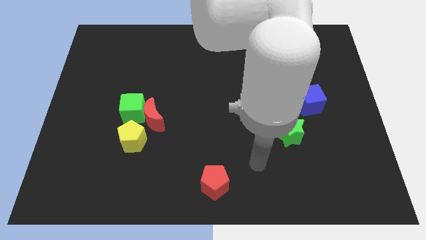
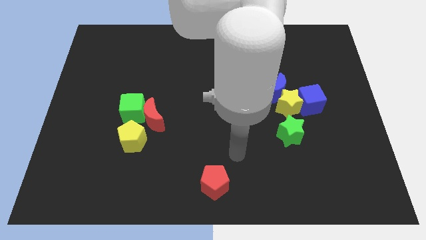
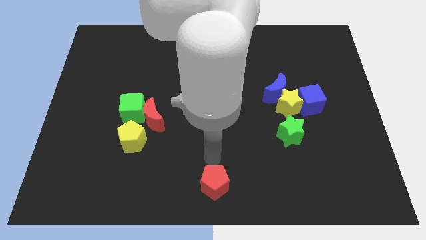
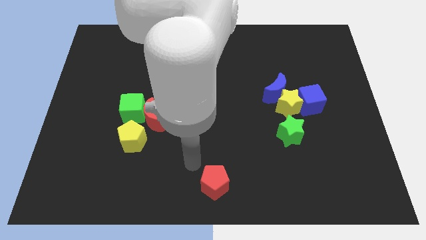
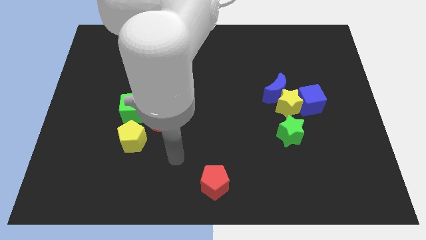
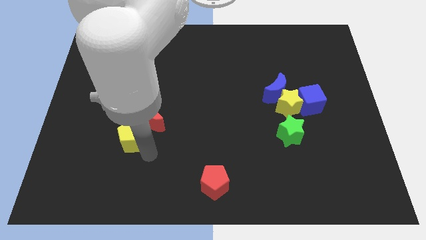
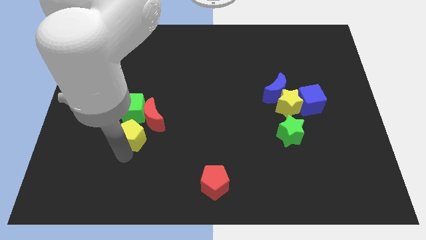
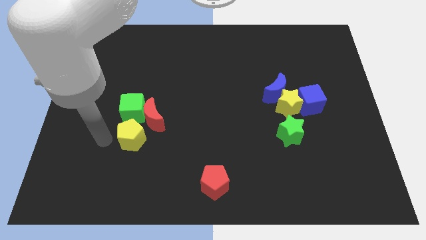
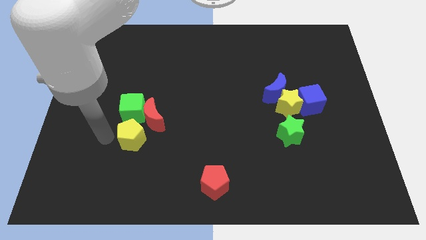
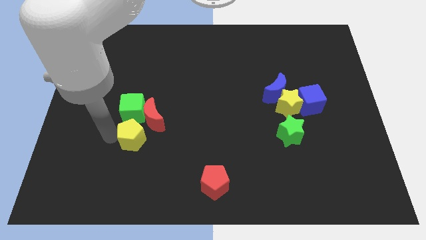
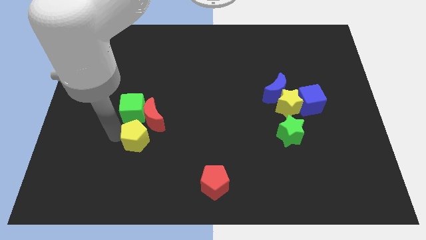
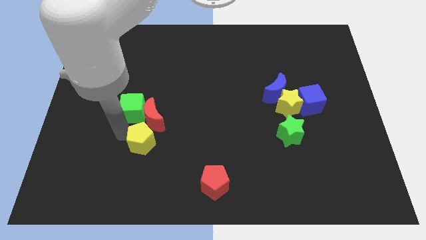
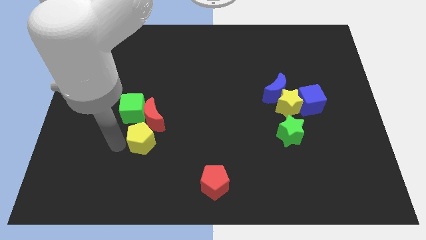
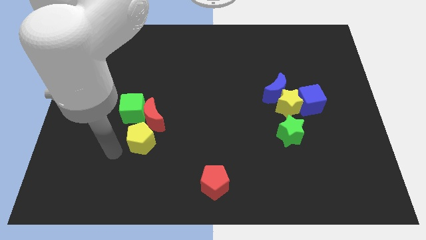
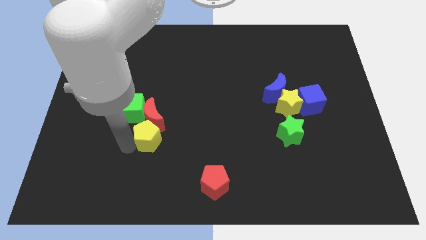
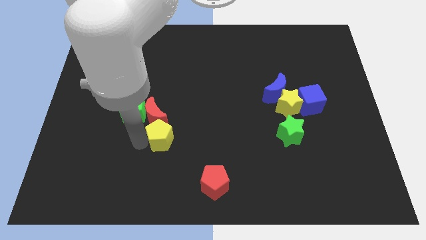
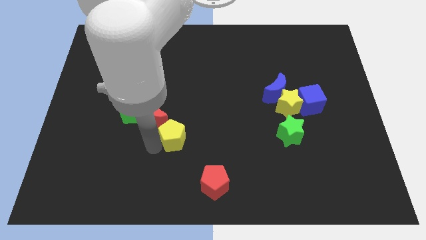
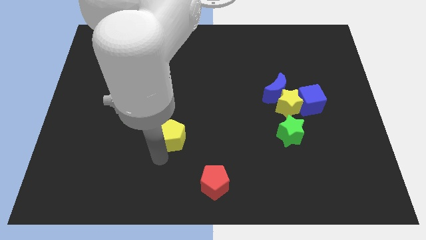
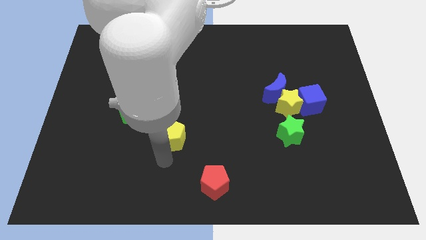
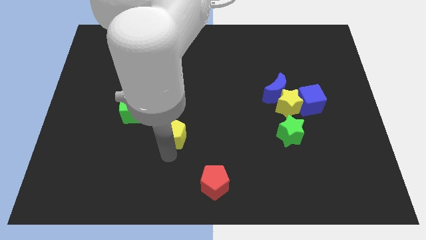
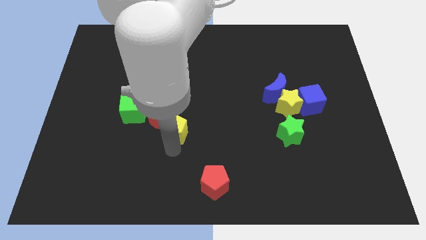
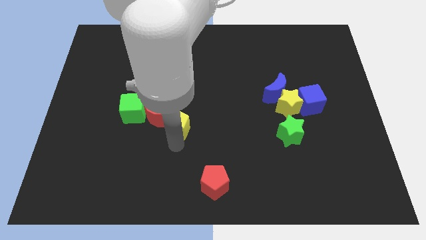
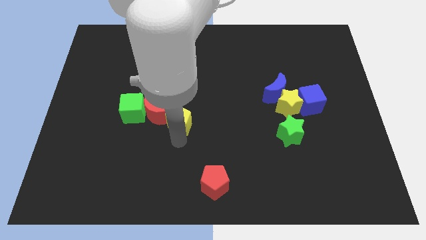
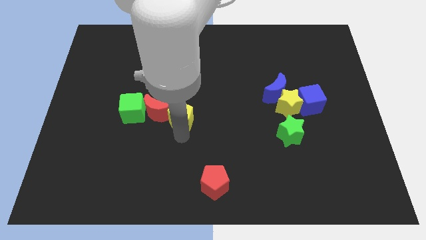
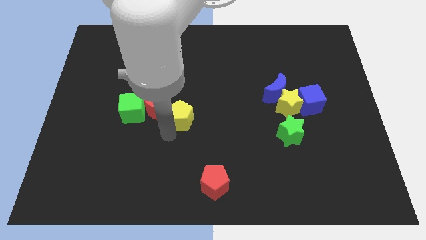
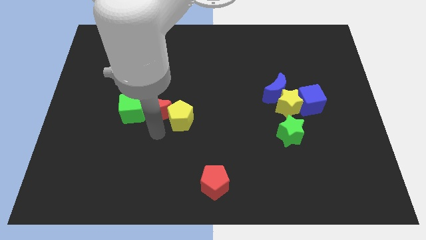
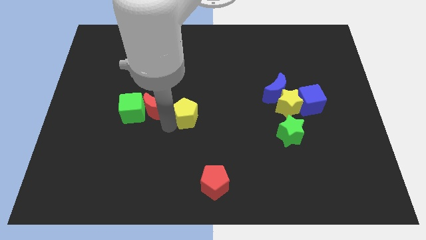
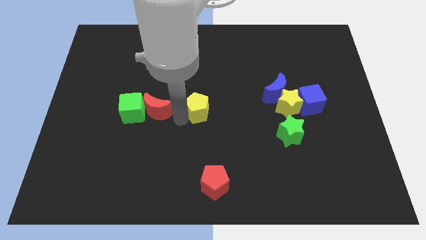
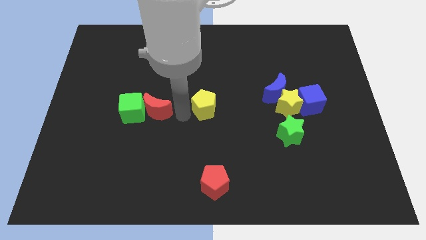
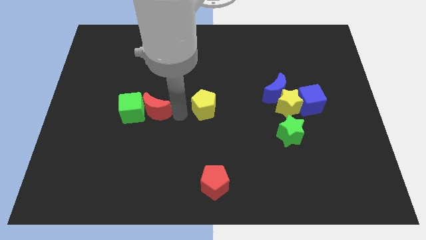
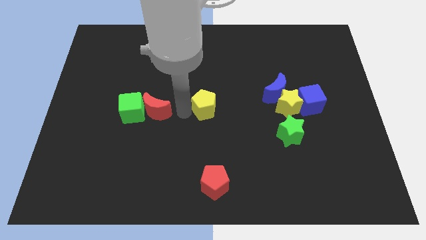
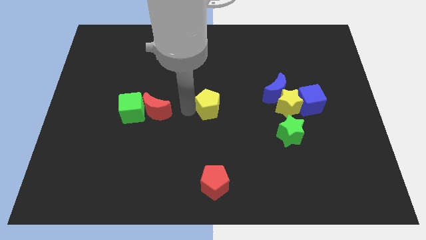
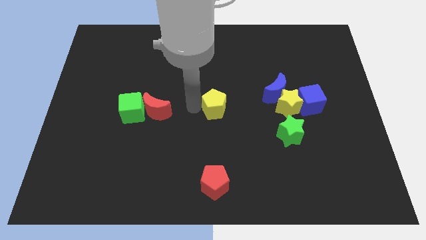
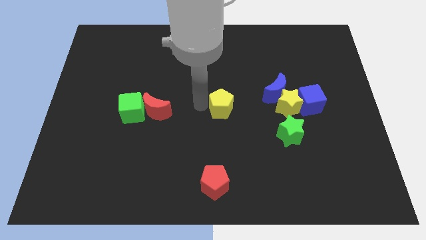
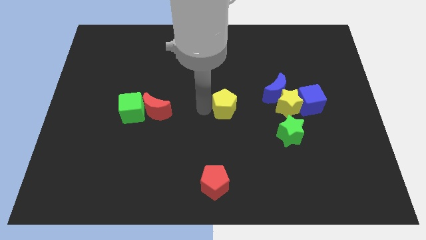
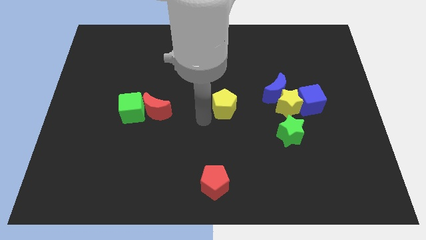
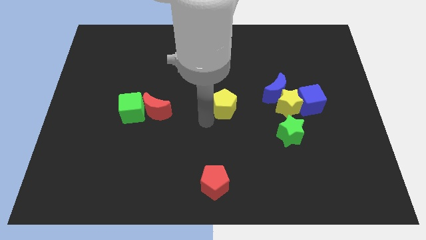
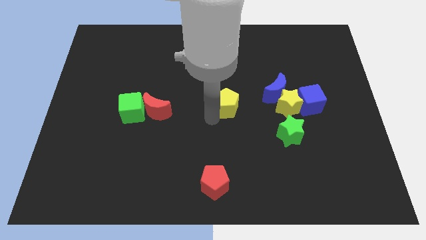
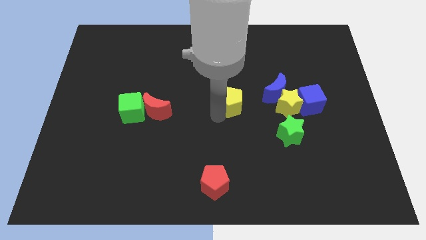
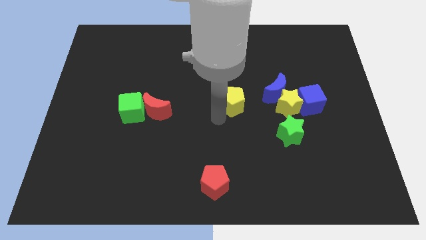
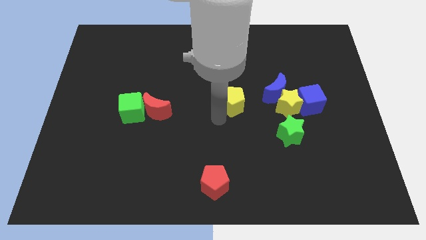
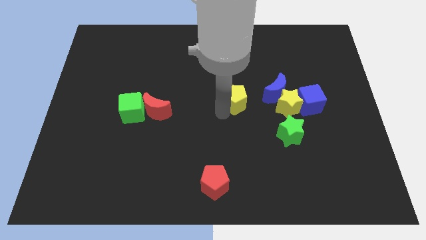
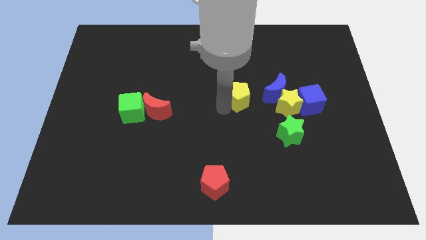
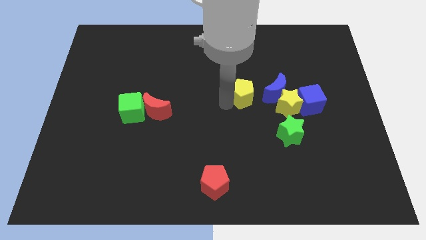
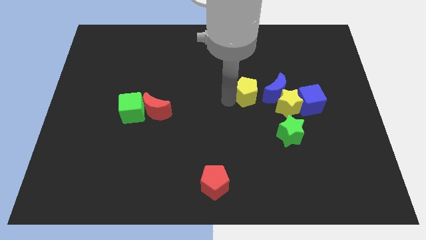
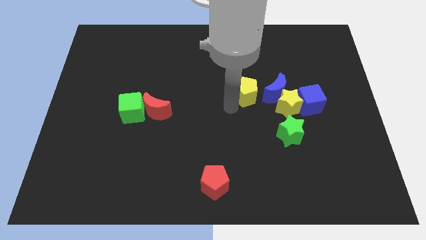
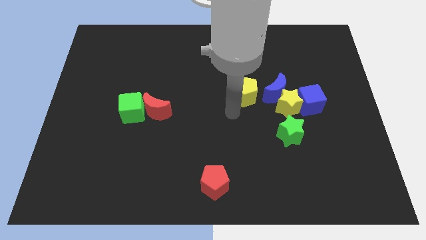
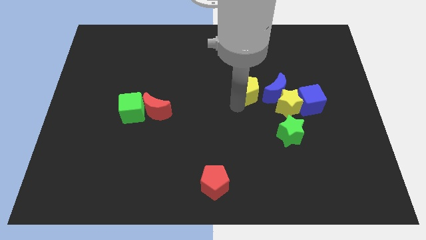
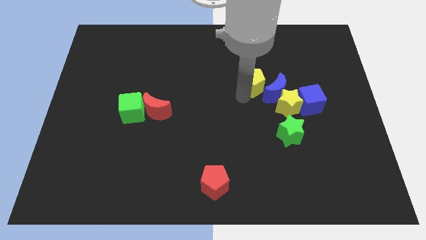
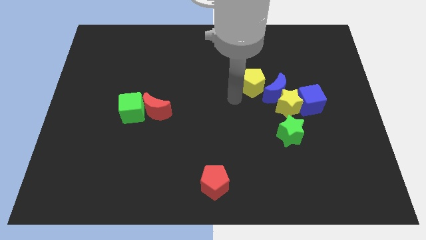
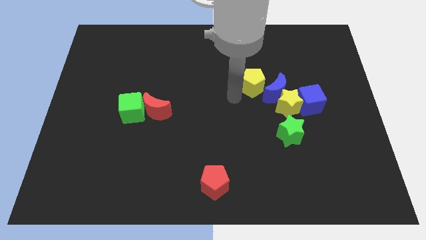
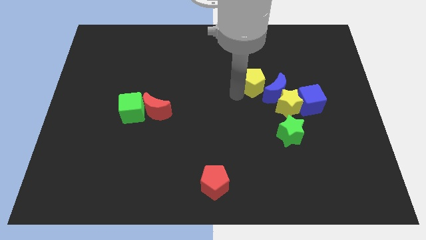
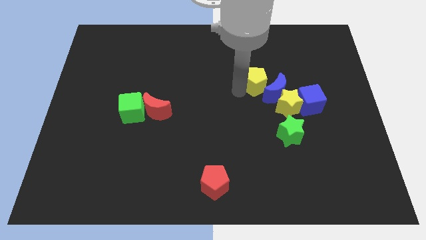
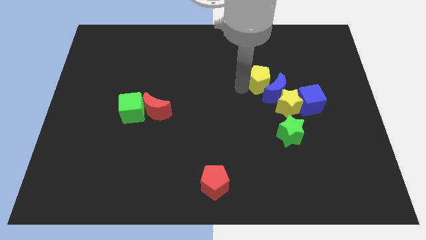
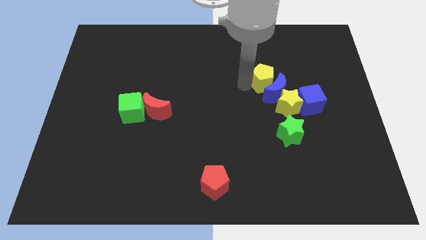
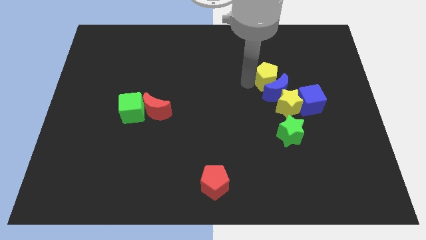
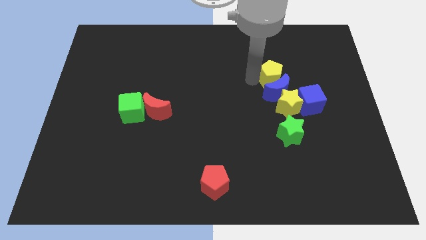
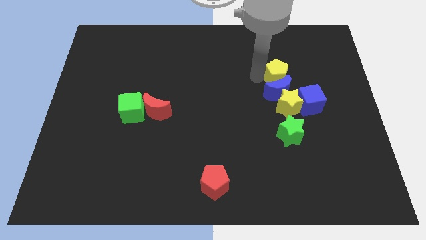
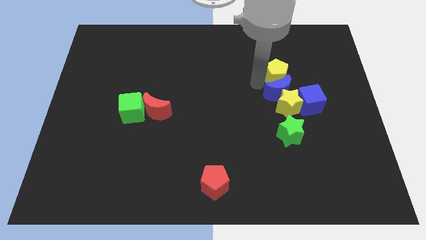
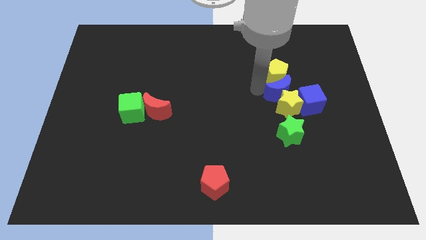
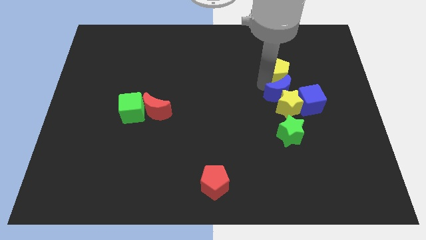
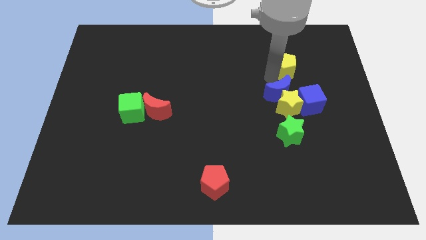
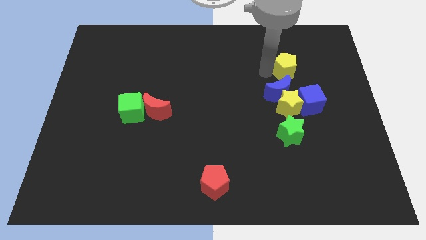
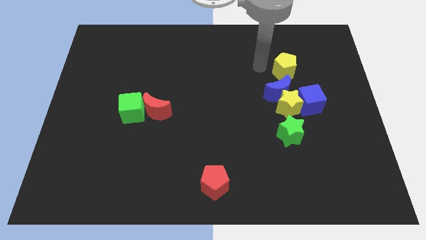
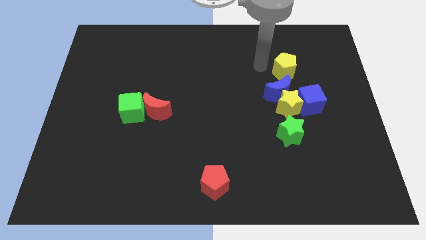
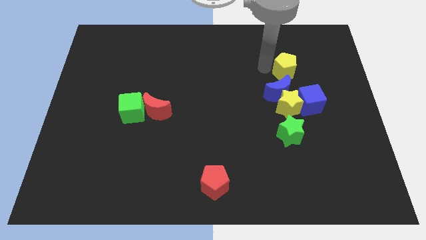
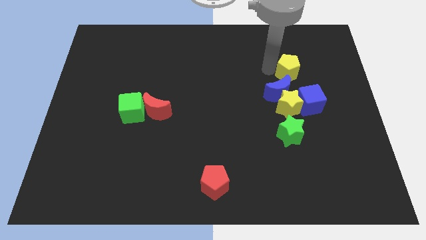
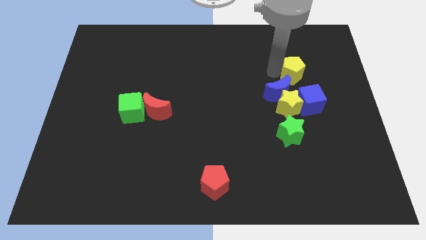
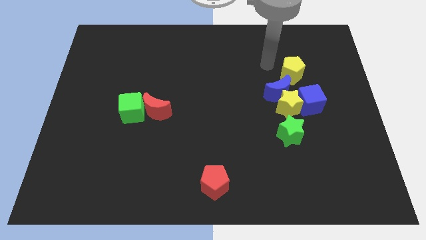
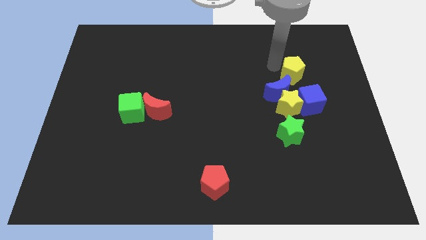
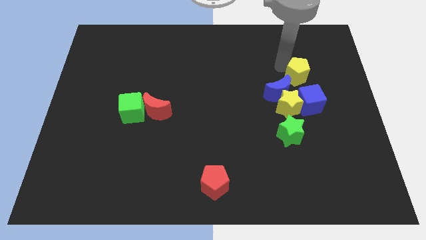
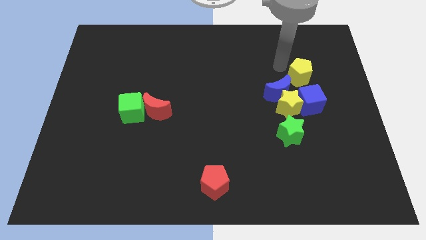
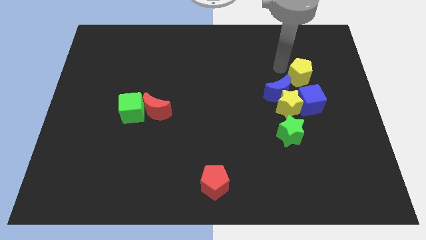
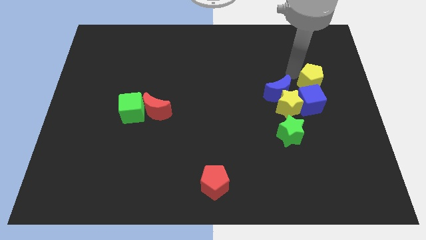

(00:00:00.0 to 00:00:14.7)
slide the yellow pentagon to the top right side of the blue cube
